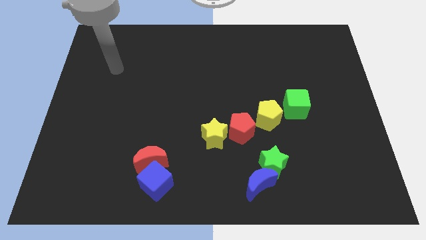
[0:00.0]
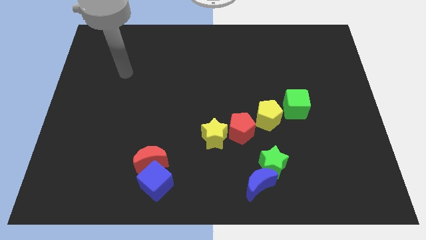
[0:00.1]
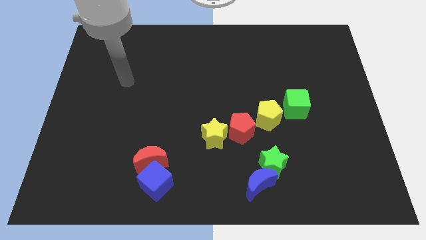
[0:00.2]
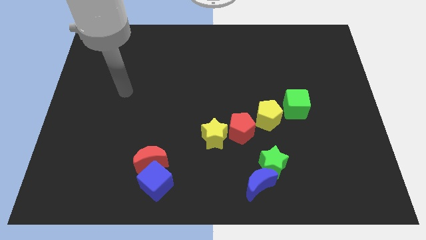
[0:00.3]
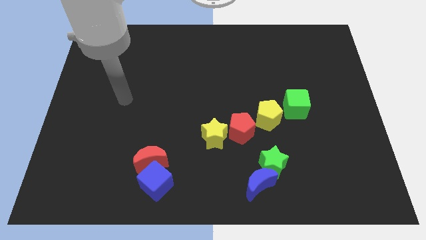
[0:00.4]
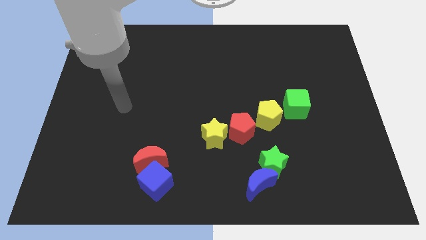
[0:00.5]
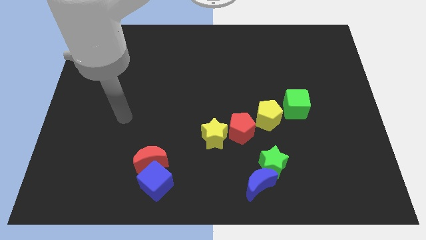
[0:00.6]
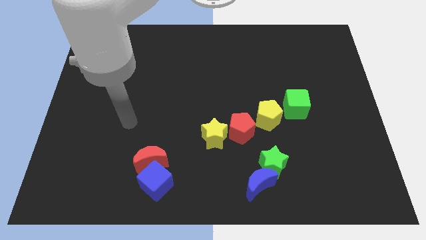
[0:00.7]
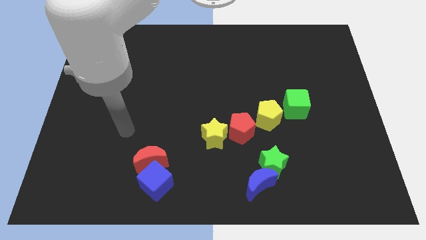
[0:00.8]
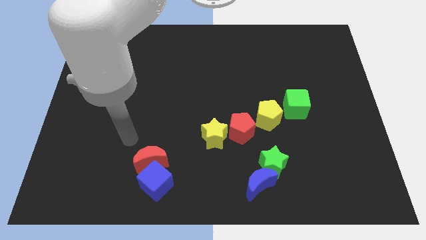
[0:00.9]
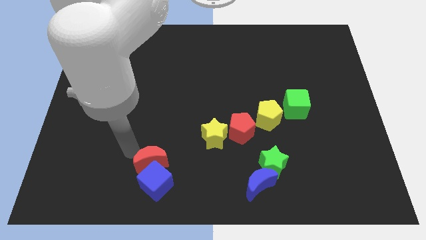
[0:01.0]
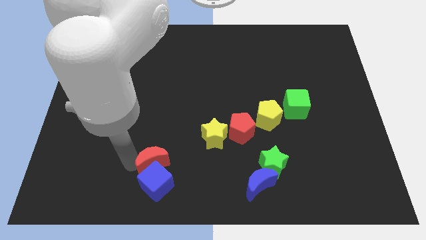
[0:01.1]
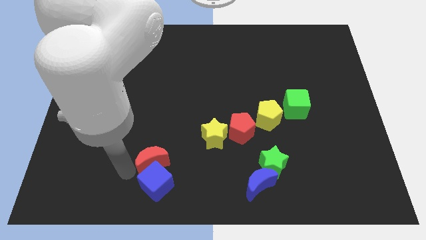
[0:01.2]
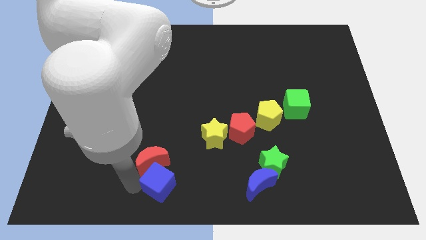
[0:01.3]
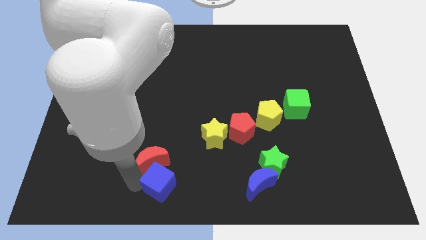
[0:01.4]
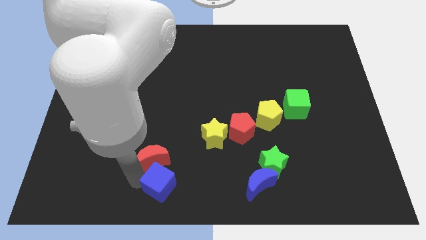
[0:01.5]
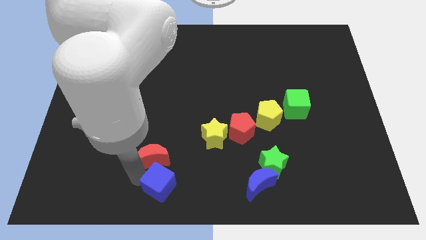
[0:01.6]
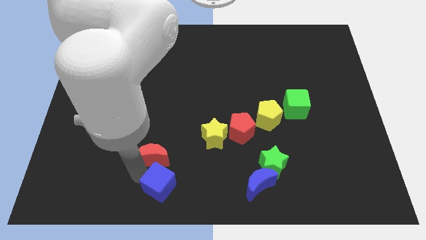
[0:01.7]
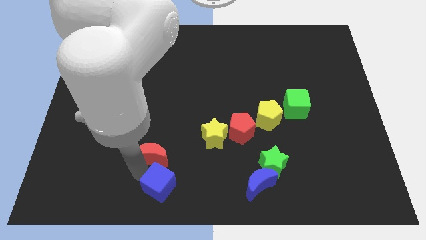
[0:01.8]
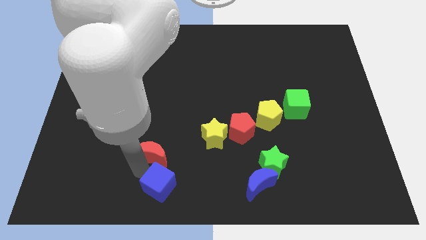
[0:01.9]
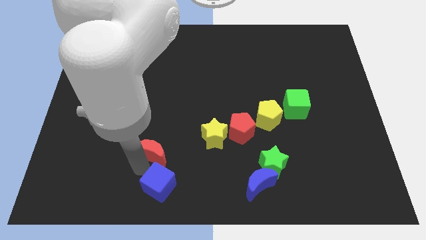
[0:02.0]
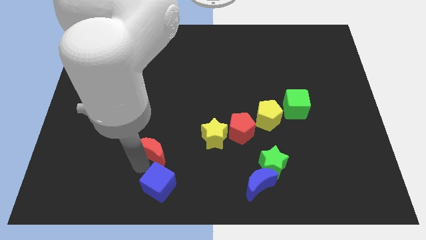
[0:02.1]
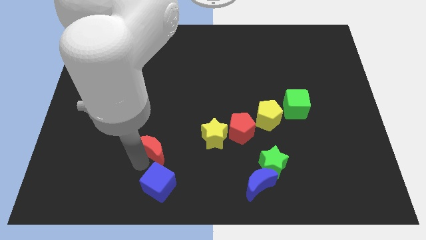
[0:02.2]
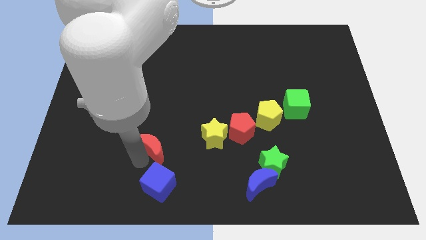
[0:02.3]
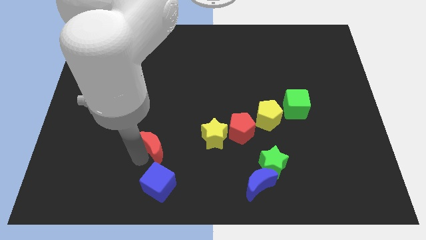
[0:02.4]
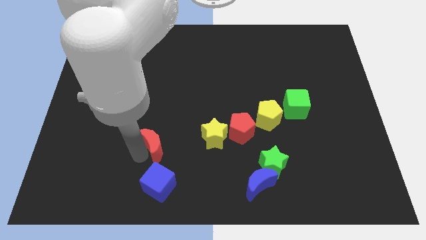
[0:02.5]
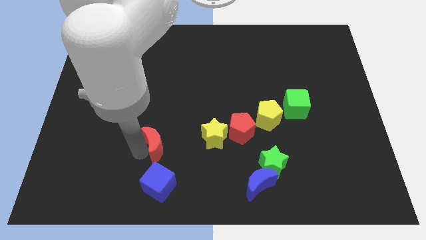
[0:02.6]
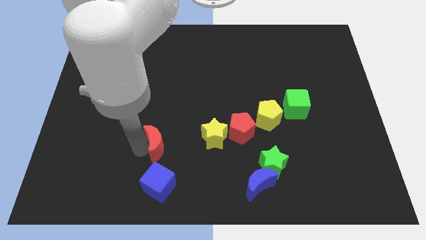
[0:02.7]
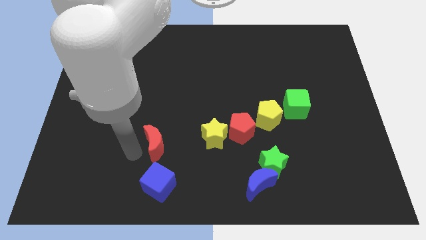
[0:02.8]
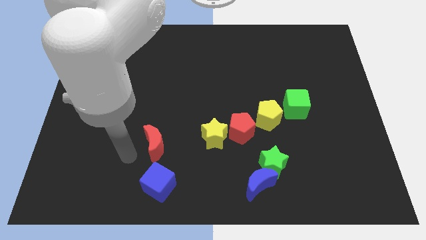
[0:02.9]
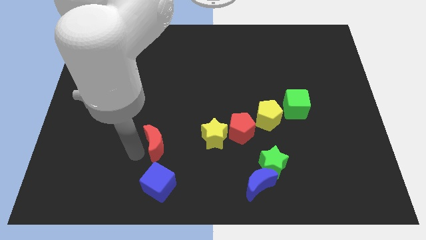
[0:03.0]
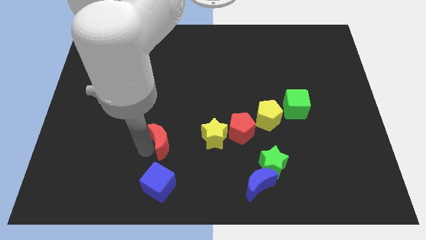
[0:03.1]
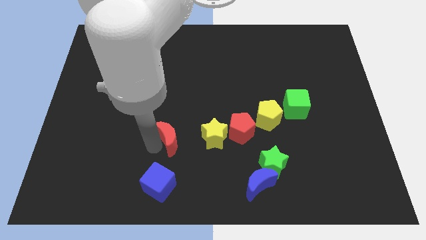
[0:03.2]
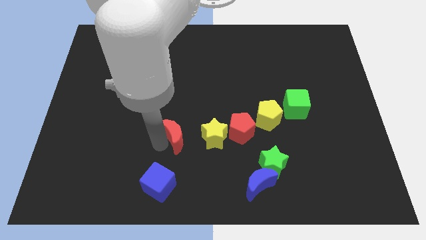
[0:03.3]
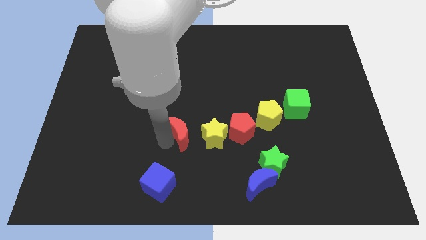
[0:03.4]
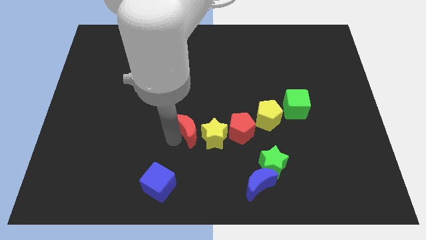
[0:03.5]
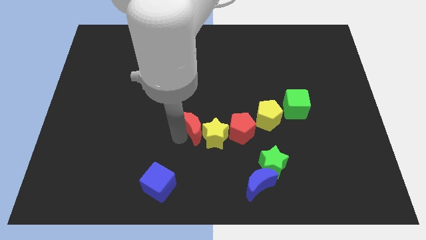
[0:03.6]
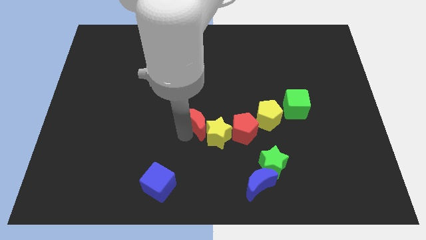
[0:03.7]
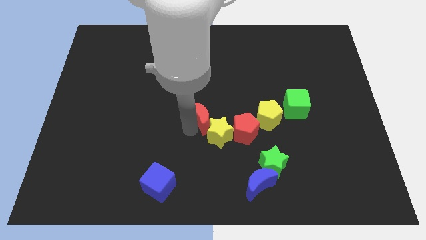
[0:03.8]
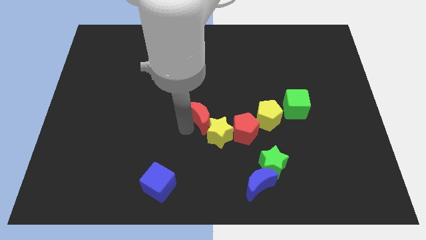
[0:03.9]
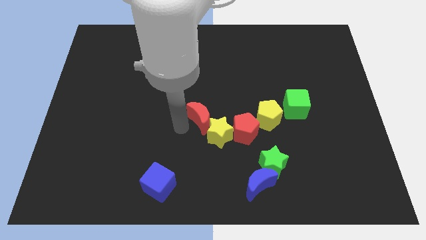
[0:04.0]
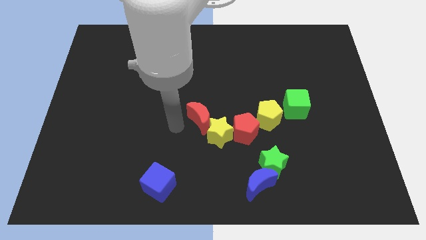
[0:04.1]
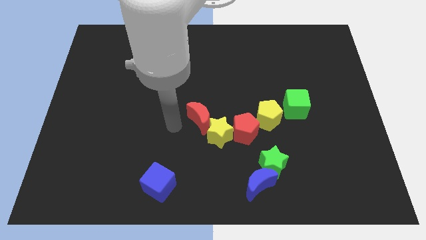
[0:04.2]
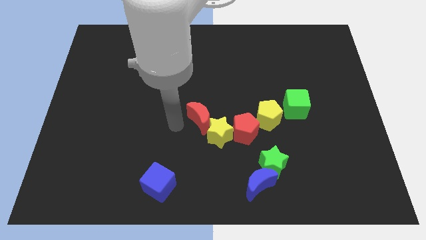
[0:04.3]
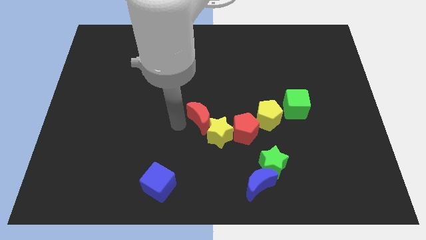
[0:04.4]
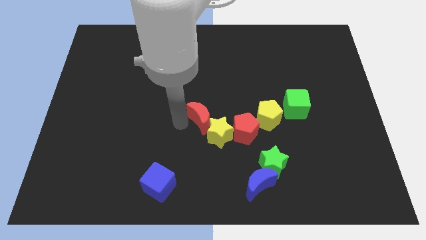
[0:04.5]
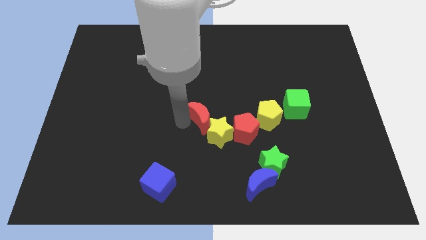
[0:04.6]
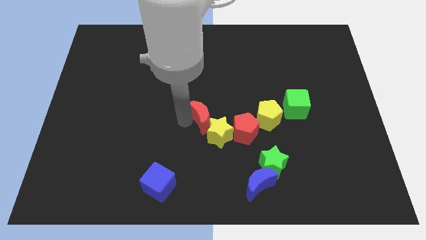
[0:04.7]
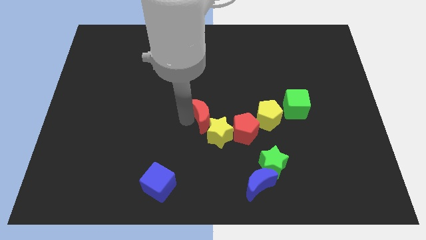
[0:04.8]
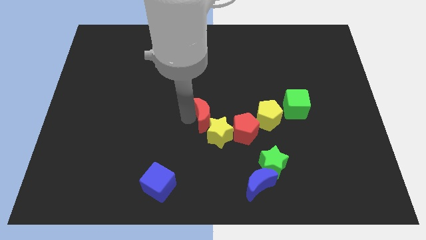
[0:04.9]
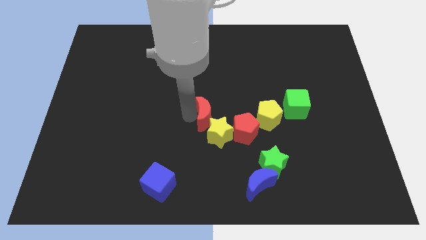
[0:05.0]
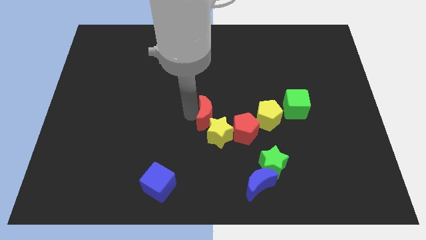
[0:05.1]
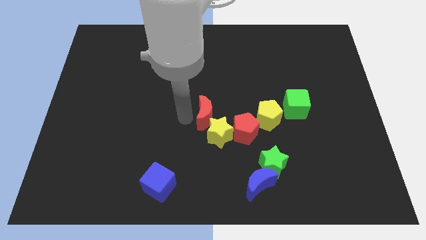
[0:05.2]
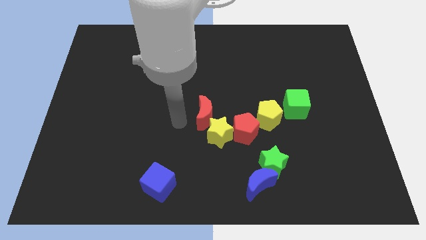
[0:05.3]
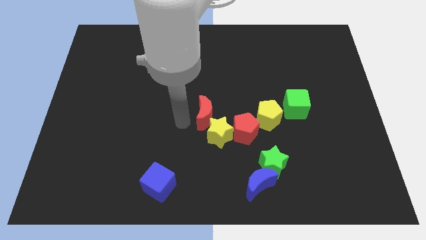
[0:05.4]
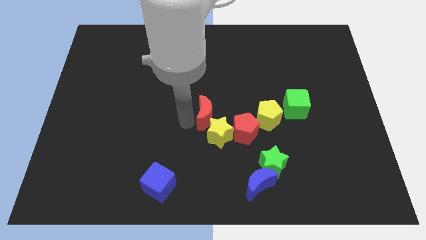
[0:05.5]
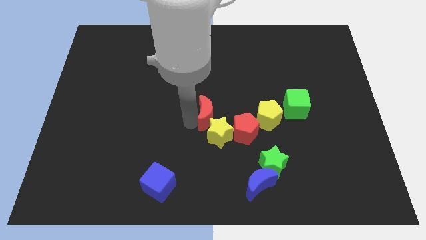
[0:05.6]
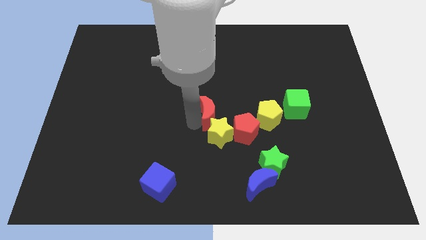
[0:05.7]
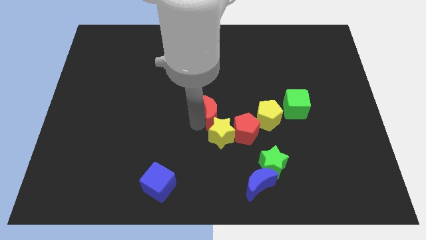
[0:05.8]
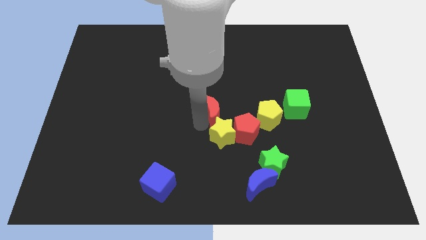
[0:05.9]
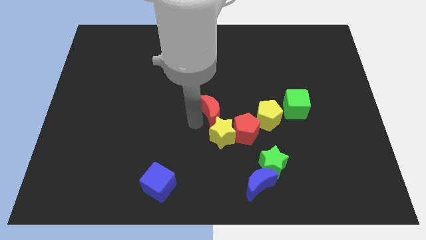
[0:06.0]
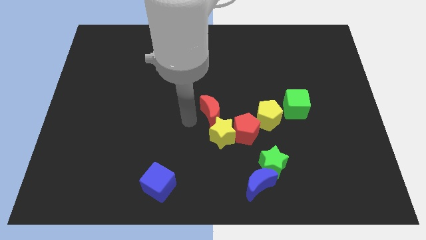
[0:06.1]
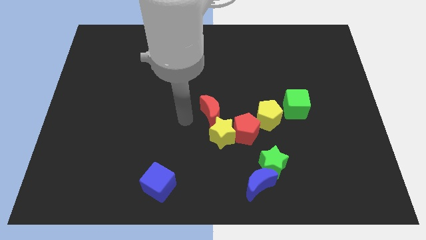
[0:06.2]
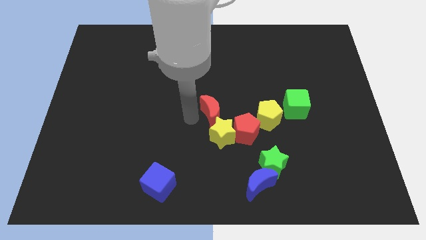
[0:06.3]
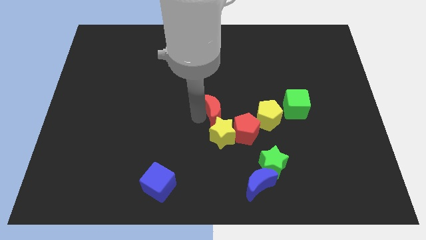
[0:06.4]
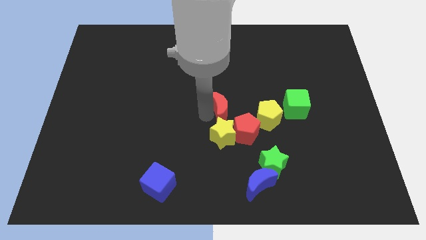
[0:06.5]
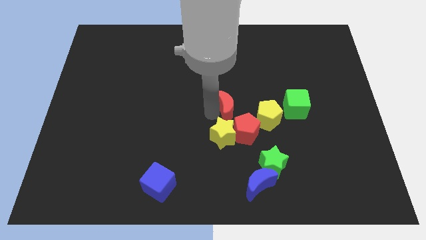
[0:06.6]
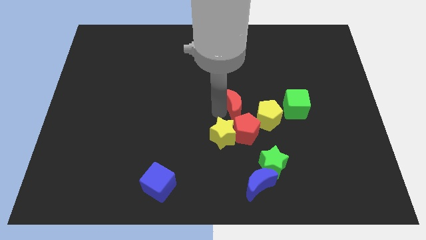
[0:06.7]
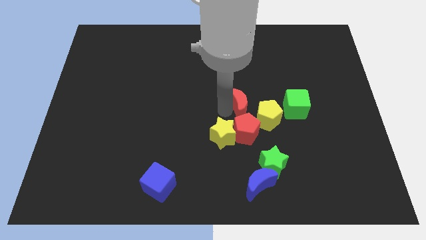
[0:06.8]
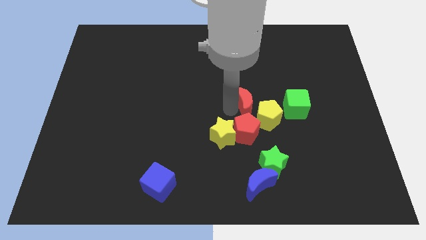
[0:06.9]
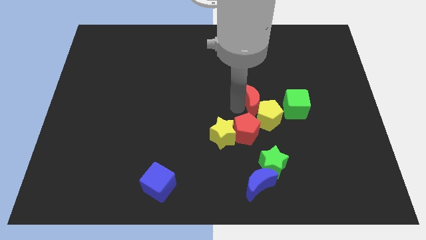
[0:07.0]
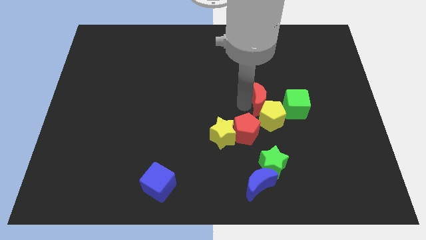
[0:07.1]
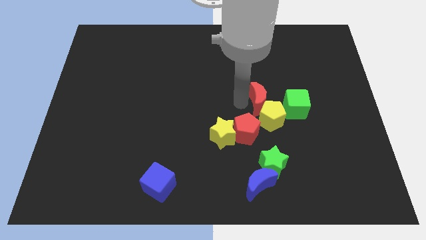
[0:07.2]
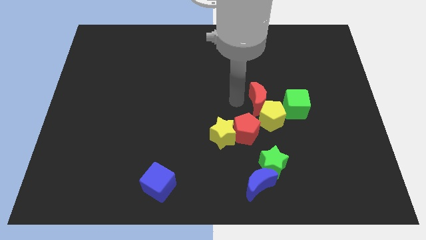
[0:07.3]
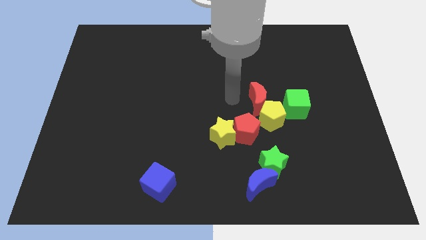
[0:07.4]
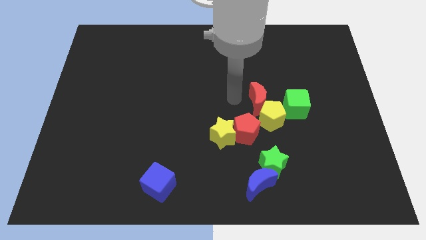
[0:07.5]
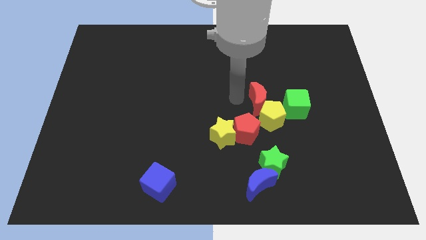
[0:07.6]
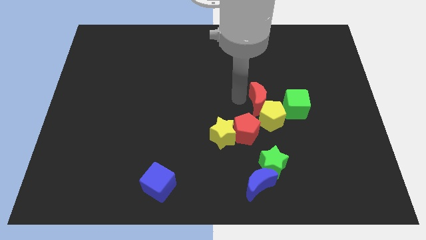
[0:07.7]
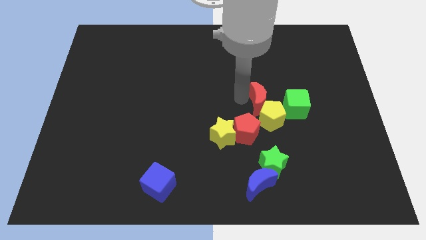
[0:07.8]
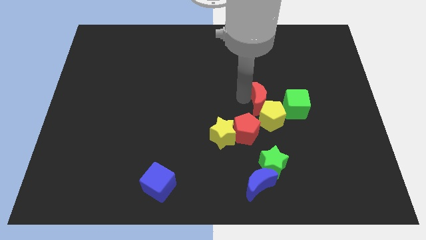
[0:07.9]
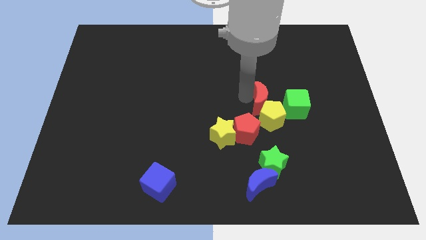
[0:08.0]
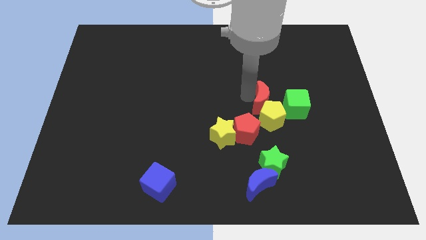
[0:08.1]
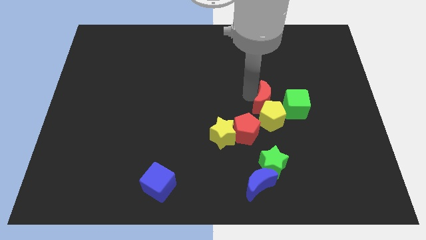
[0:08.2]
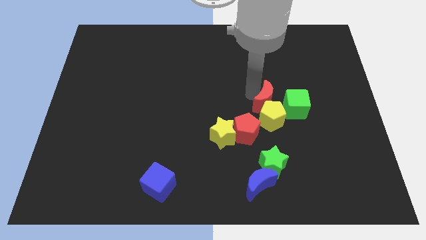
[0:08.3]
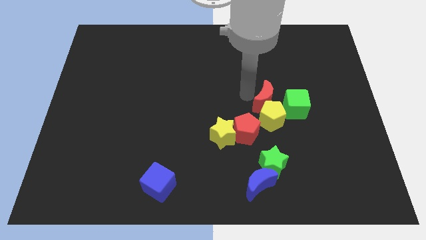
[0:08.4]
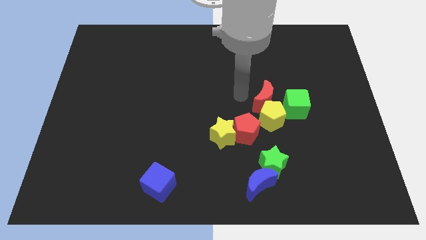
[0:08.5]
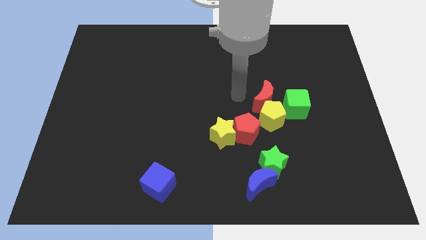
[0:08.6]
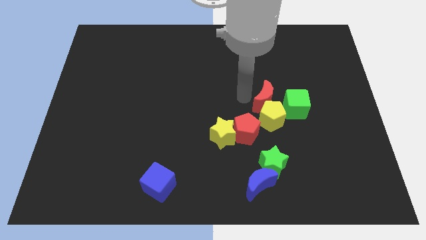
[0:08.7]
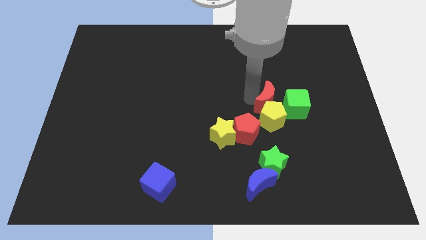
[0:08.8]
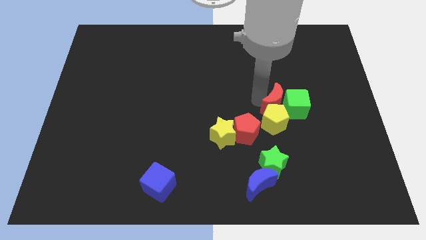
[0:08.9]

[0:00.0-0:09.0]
push the red moon to the green cube
